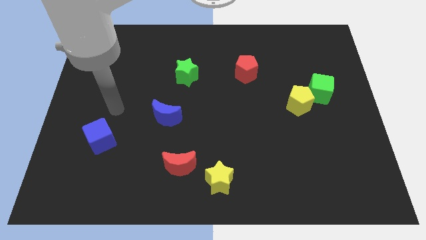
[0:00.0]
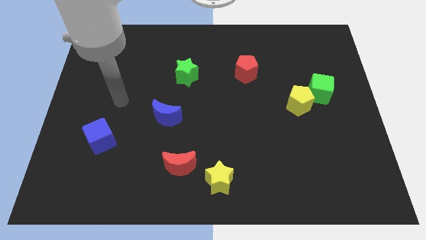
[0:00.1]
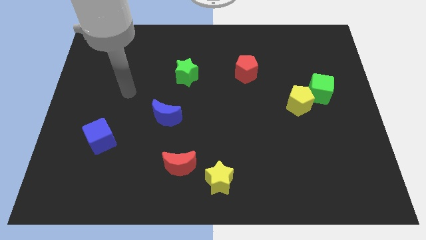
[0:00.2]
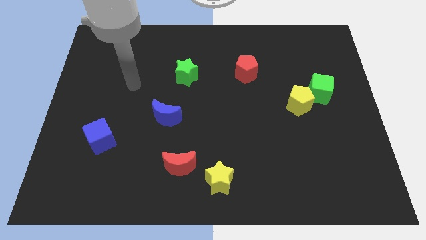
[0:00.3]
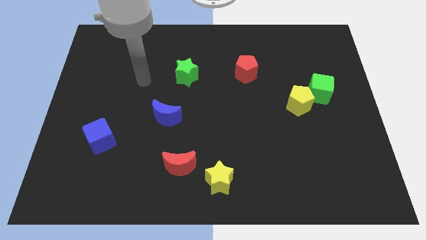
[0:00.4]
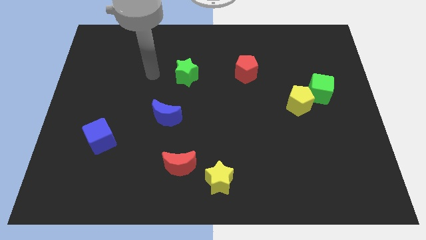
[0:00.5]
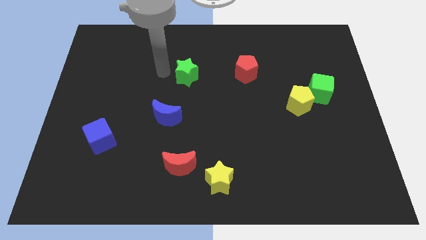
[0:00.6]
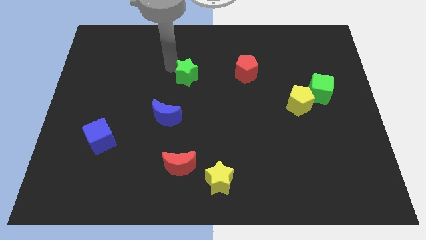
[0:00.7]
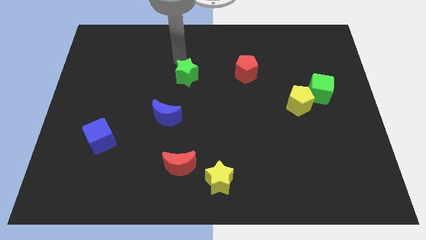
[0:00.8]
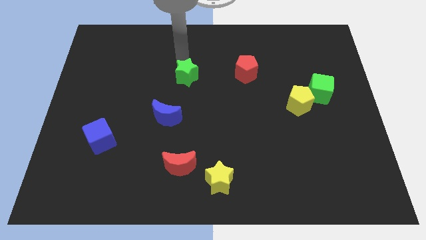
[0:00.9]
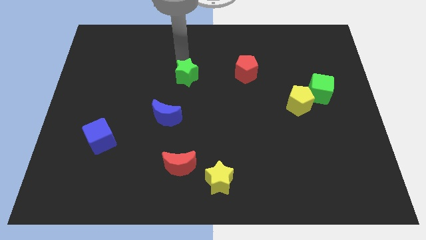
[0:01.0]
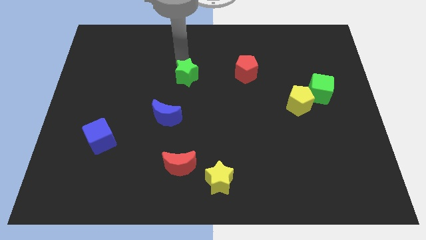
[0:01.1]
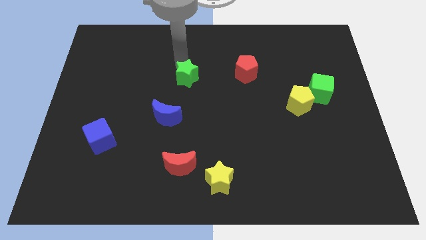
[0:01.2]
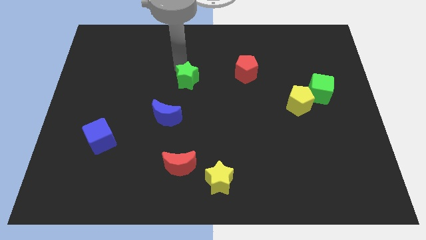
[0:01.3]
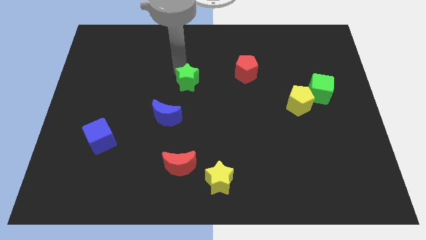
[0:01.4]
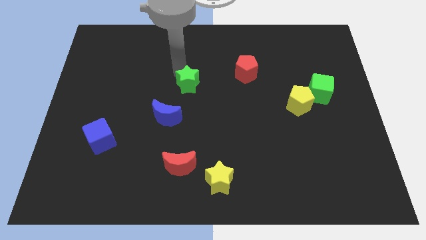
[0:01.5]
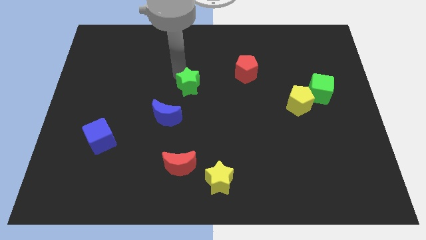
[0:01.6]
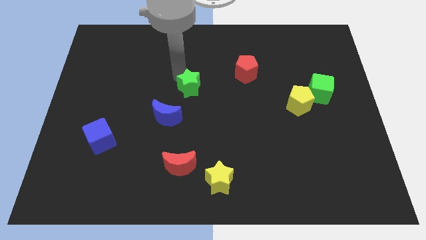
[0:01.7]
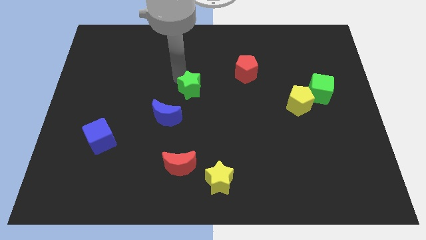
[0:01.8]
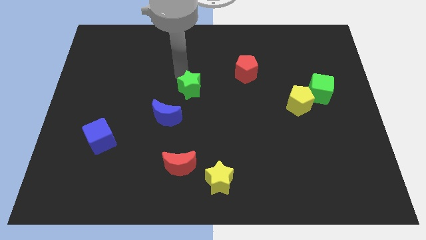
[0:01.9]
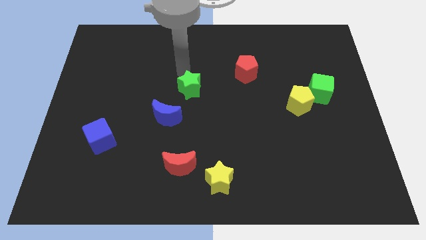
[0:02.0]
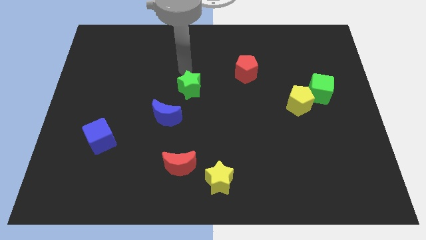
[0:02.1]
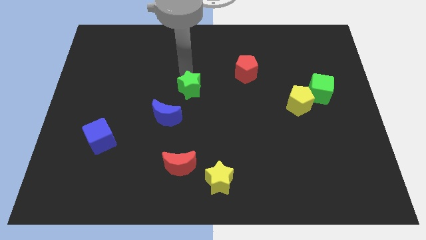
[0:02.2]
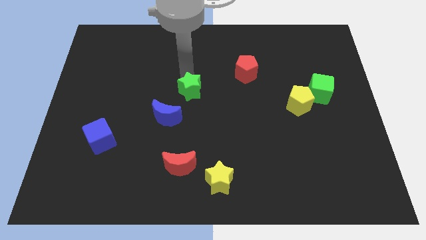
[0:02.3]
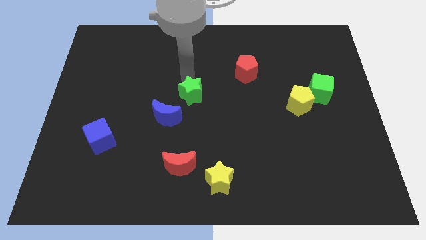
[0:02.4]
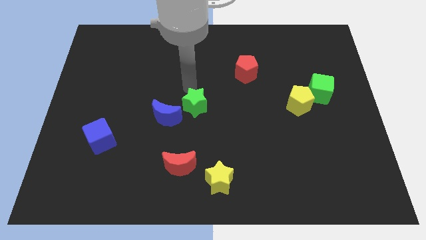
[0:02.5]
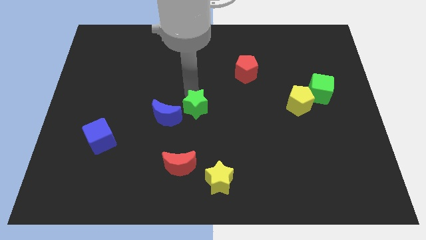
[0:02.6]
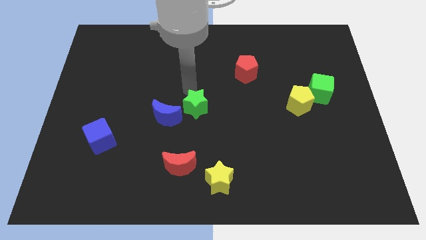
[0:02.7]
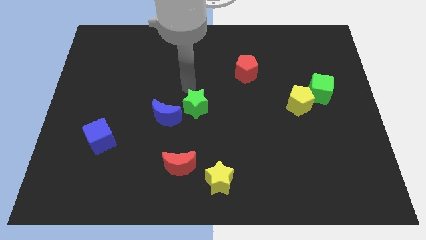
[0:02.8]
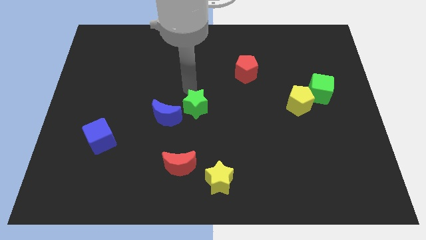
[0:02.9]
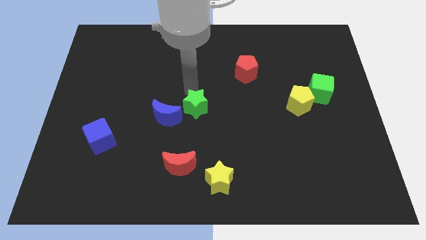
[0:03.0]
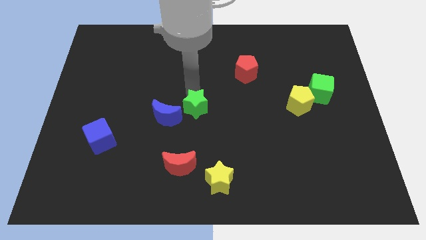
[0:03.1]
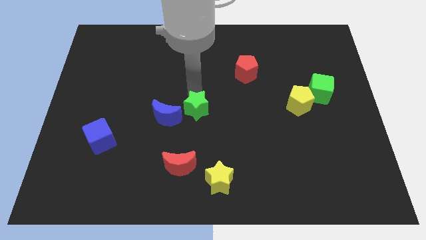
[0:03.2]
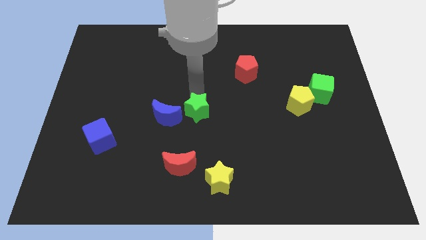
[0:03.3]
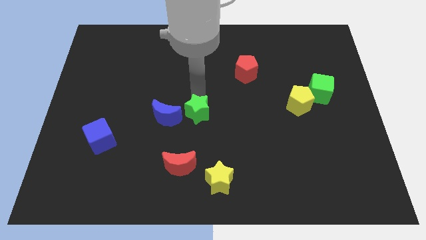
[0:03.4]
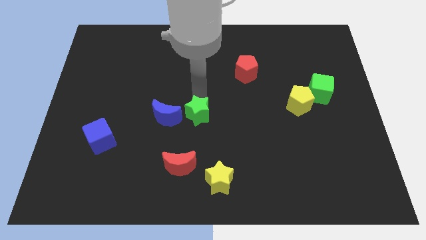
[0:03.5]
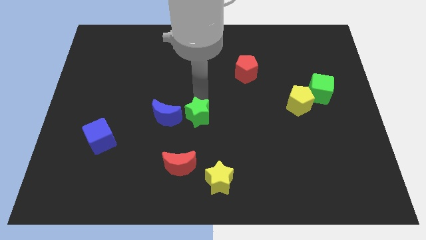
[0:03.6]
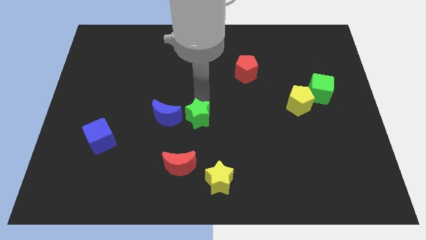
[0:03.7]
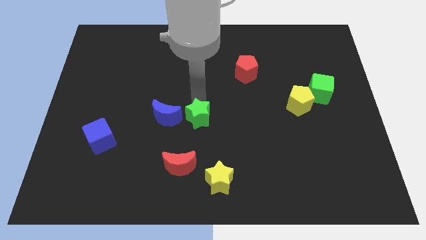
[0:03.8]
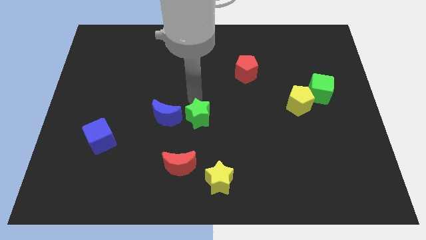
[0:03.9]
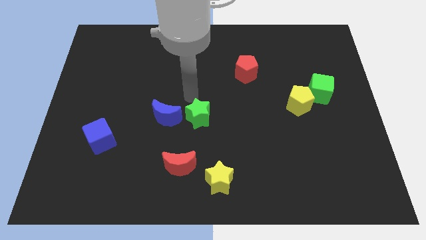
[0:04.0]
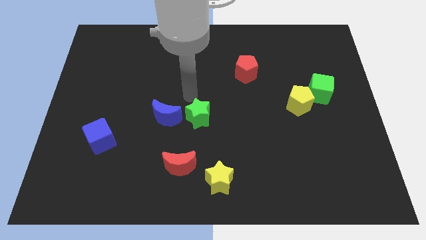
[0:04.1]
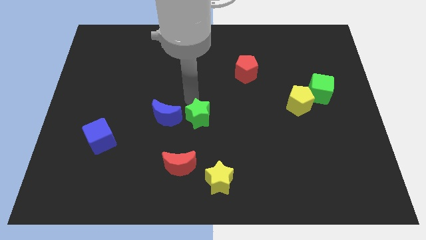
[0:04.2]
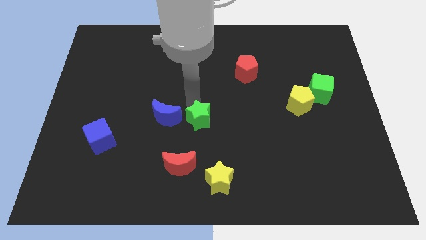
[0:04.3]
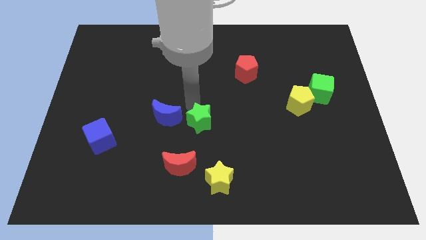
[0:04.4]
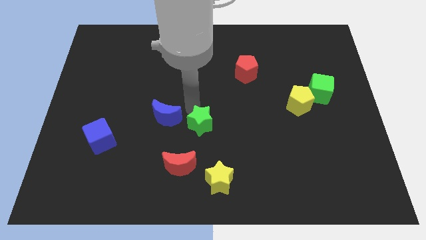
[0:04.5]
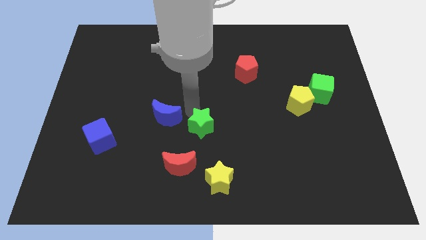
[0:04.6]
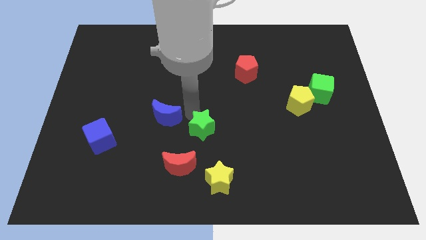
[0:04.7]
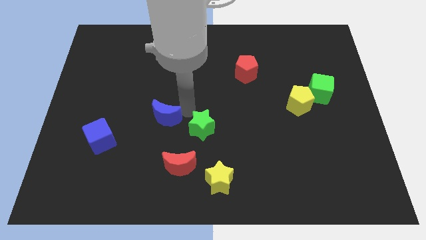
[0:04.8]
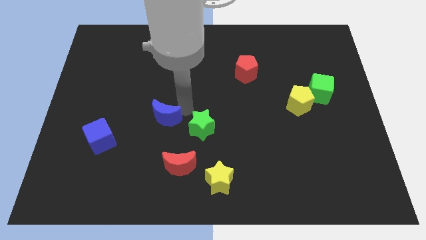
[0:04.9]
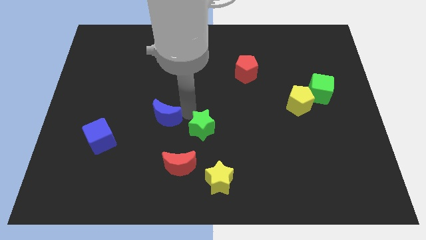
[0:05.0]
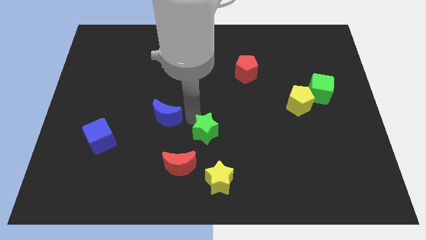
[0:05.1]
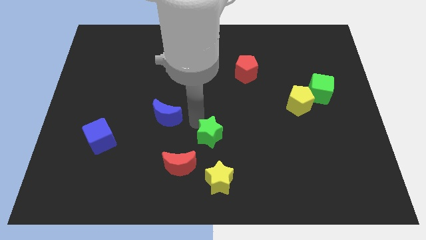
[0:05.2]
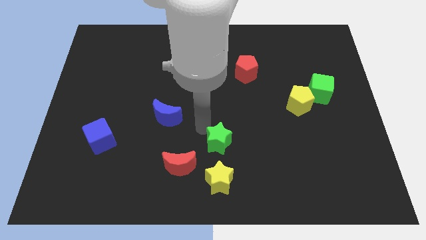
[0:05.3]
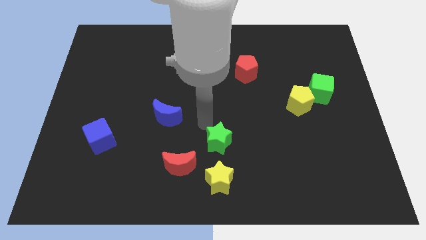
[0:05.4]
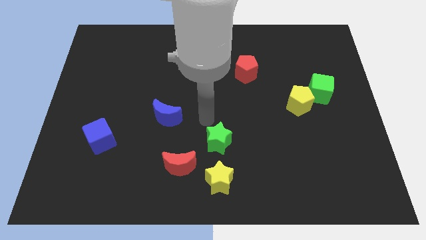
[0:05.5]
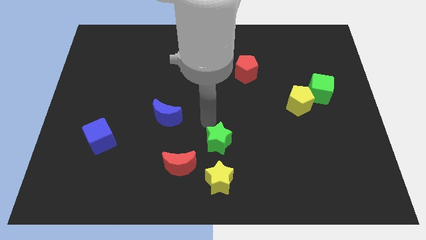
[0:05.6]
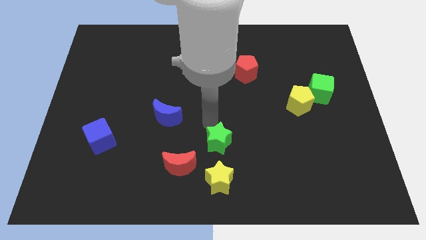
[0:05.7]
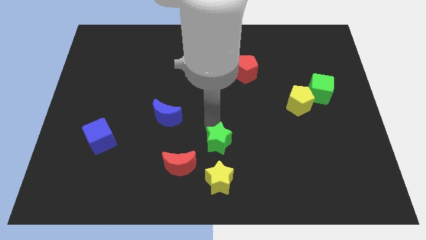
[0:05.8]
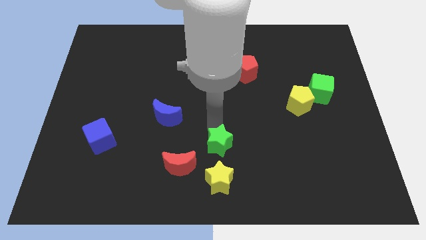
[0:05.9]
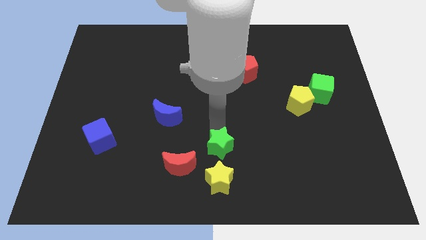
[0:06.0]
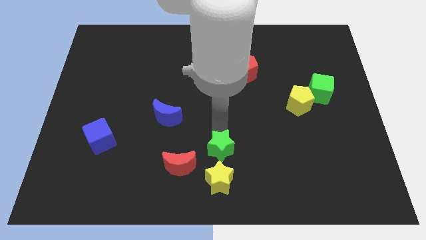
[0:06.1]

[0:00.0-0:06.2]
slide the green star to the right of the red moon
